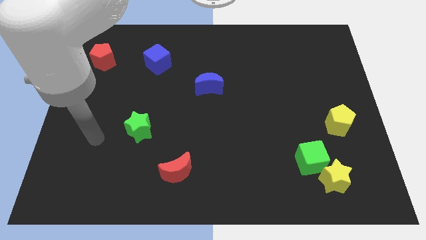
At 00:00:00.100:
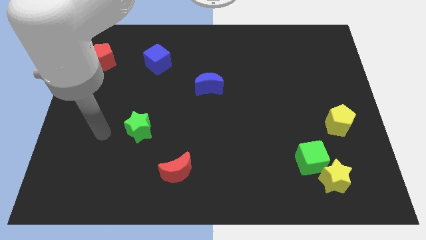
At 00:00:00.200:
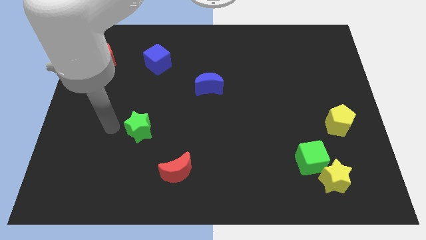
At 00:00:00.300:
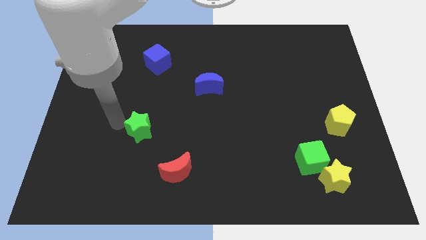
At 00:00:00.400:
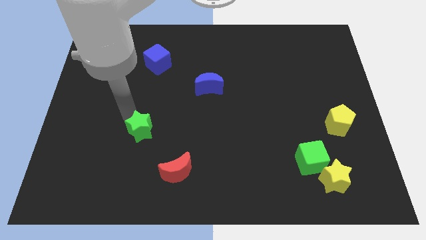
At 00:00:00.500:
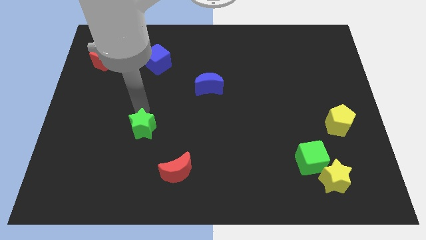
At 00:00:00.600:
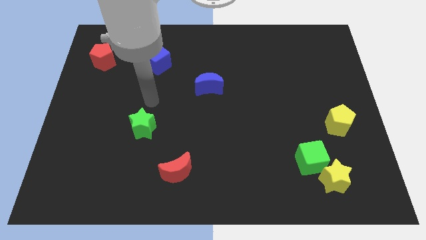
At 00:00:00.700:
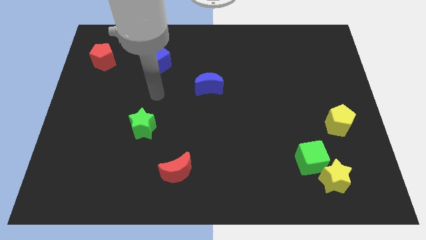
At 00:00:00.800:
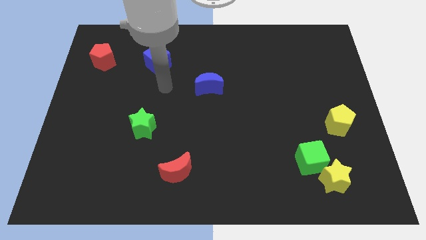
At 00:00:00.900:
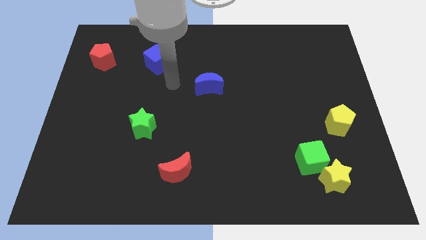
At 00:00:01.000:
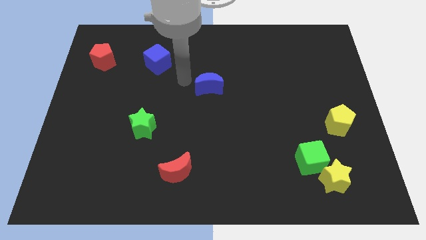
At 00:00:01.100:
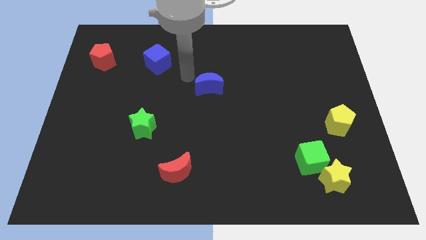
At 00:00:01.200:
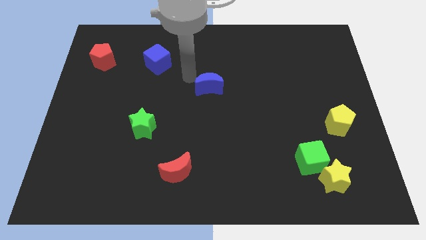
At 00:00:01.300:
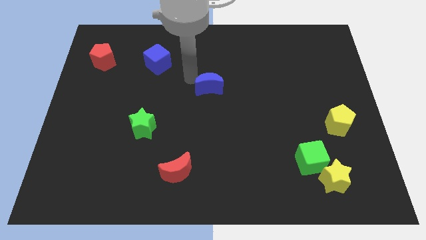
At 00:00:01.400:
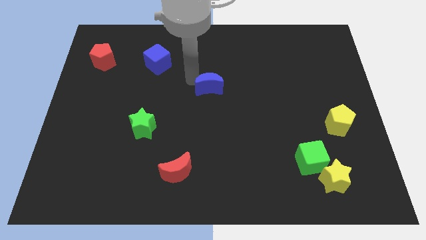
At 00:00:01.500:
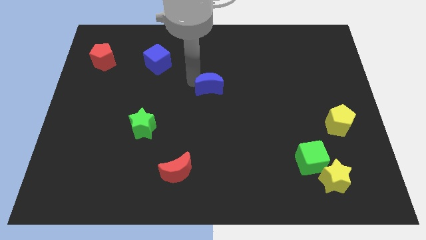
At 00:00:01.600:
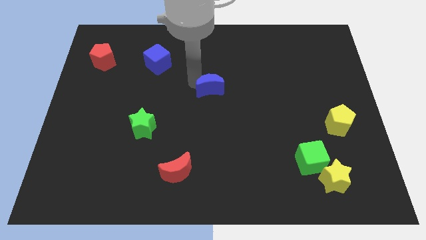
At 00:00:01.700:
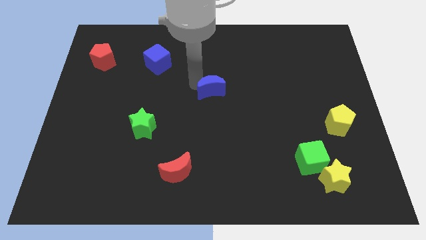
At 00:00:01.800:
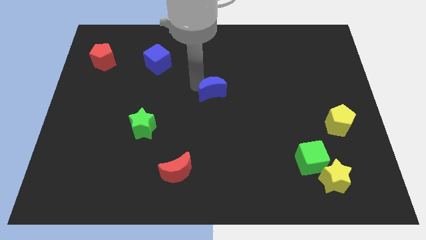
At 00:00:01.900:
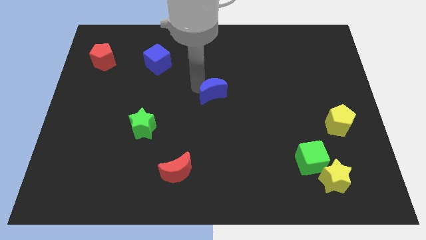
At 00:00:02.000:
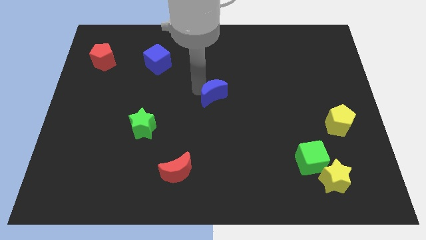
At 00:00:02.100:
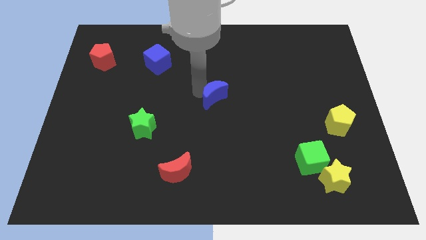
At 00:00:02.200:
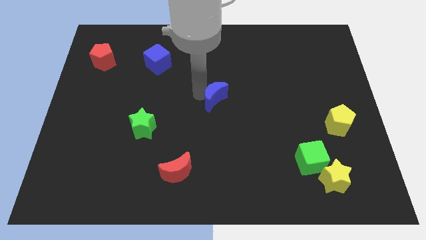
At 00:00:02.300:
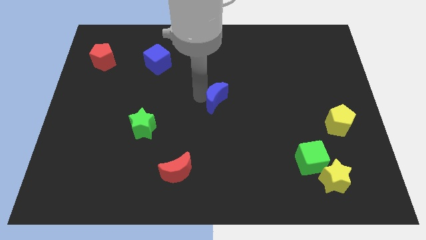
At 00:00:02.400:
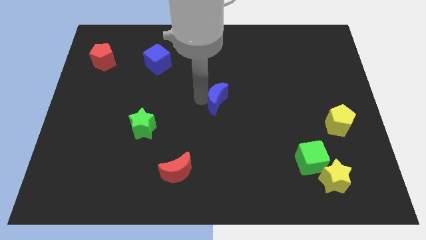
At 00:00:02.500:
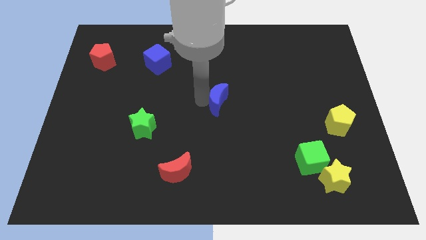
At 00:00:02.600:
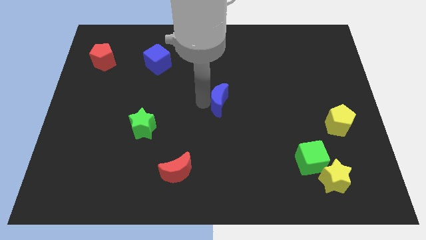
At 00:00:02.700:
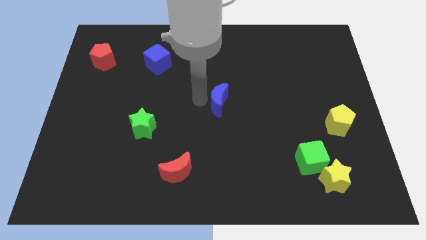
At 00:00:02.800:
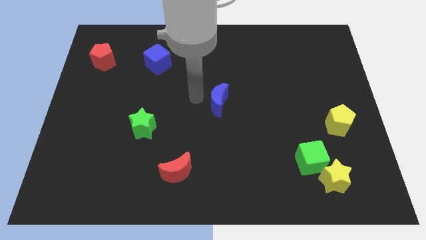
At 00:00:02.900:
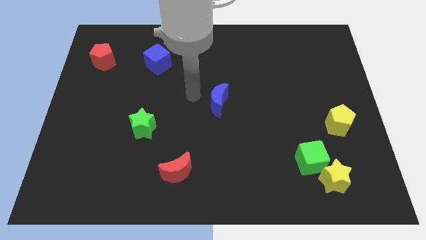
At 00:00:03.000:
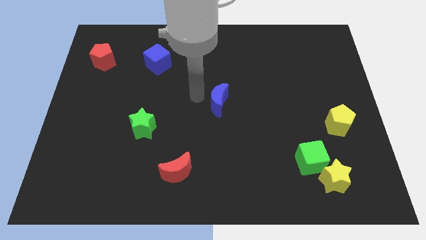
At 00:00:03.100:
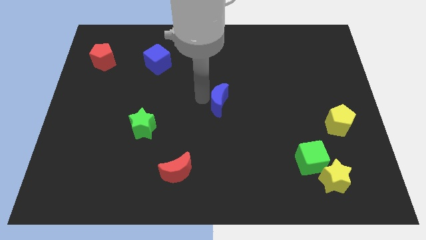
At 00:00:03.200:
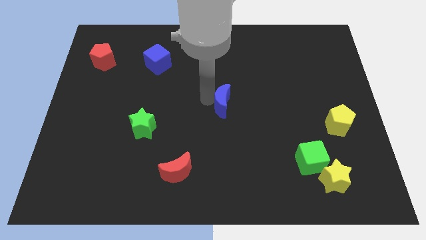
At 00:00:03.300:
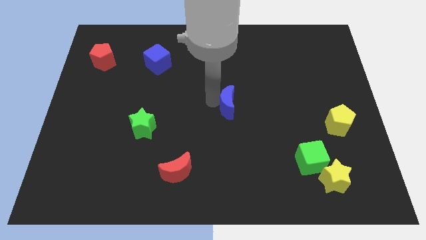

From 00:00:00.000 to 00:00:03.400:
slightly slide the blue moon down and right

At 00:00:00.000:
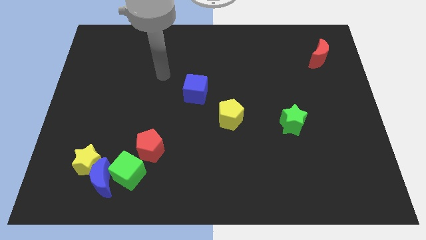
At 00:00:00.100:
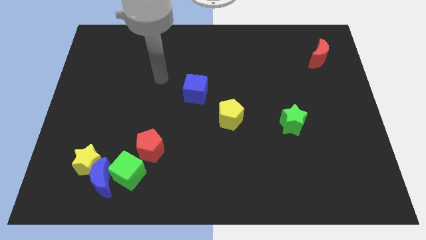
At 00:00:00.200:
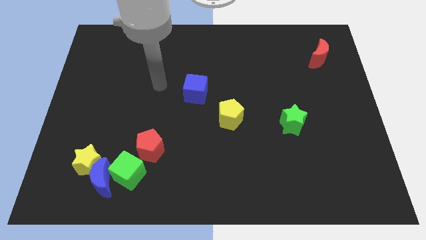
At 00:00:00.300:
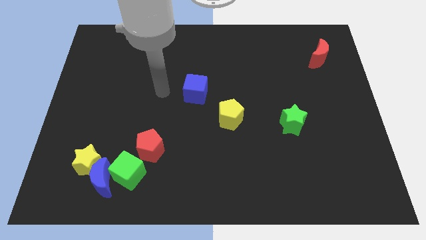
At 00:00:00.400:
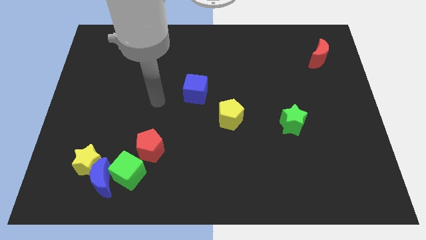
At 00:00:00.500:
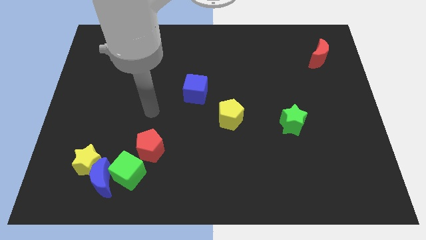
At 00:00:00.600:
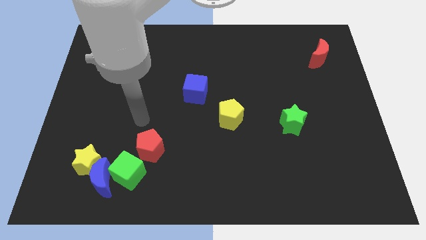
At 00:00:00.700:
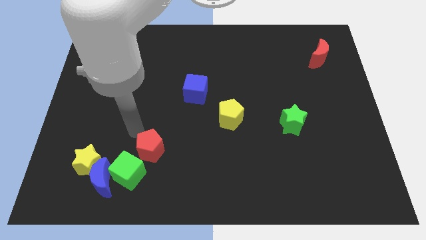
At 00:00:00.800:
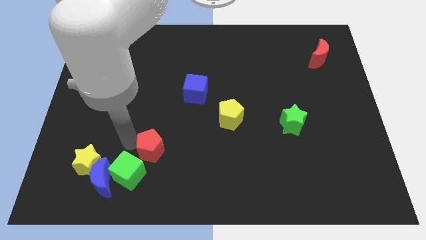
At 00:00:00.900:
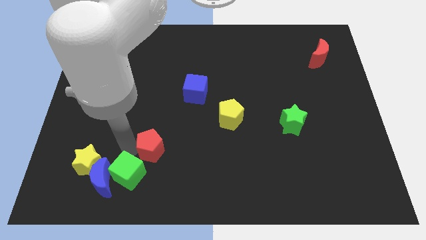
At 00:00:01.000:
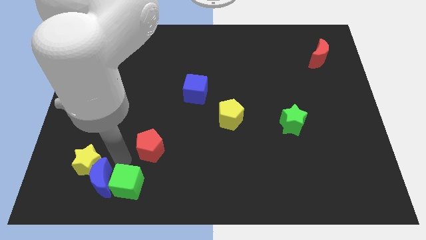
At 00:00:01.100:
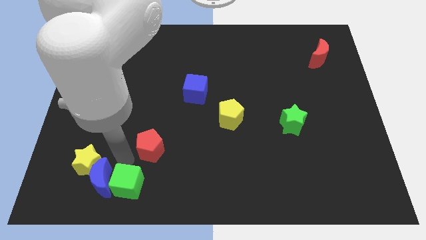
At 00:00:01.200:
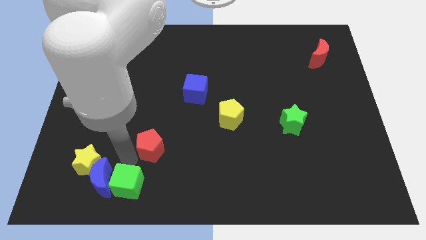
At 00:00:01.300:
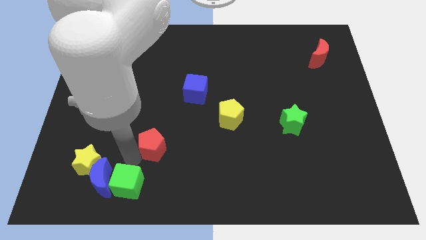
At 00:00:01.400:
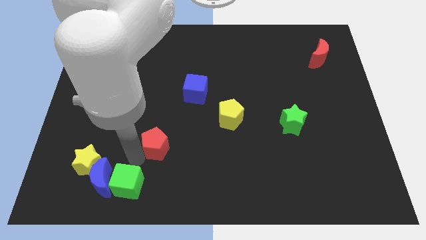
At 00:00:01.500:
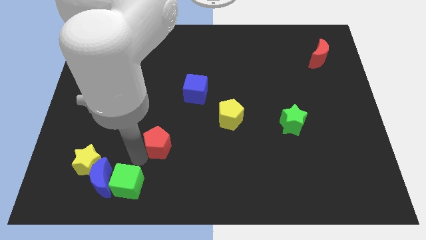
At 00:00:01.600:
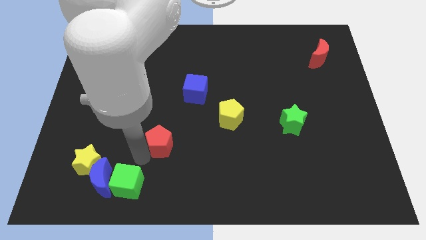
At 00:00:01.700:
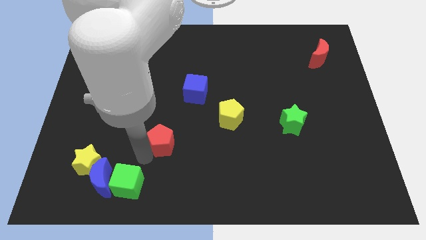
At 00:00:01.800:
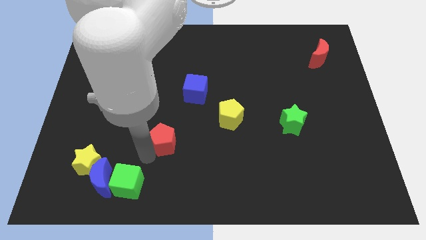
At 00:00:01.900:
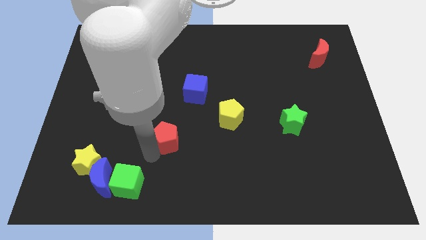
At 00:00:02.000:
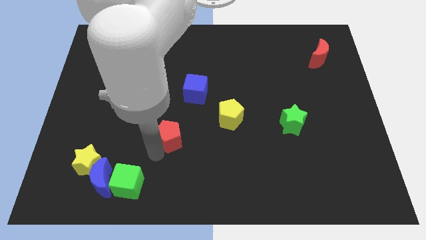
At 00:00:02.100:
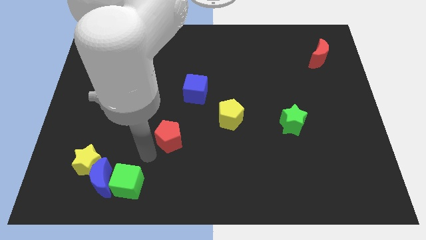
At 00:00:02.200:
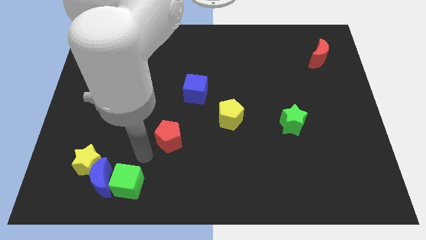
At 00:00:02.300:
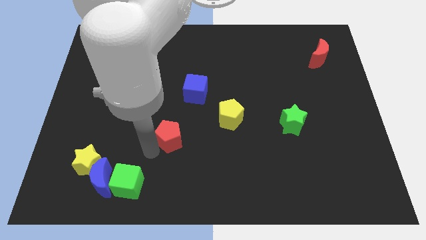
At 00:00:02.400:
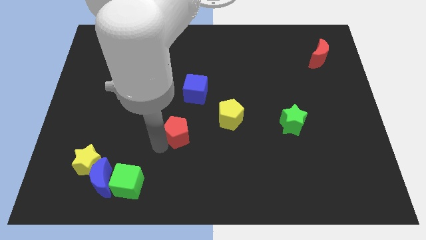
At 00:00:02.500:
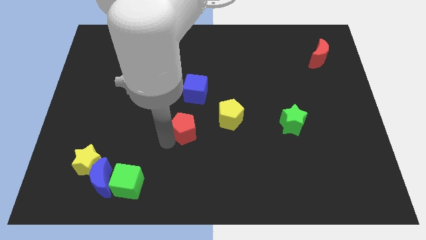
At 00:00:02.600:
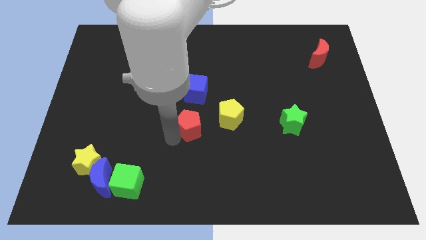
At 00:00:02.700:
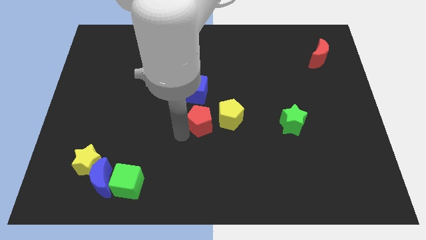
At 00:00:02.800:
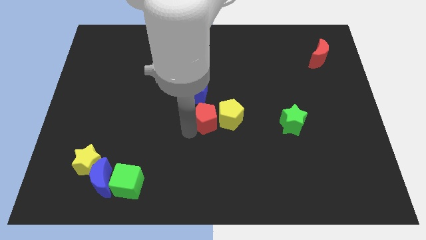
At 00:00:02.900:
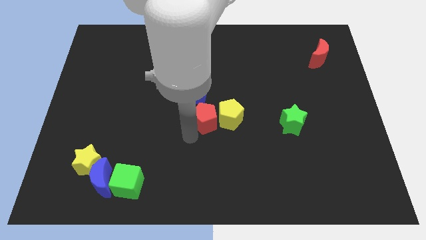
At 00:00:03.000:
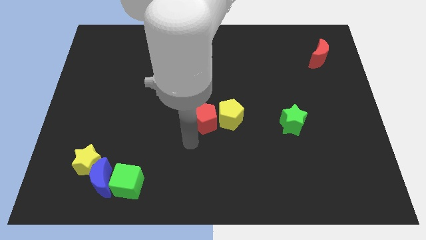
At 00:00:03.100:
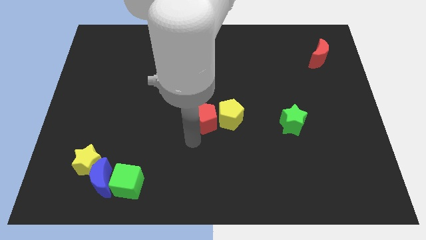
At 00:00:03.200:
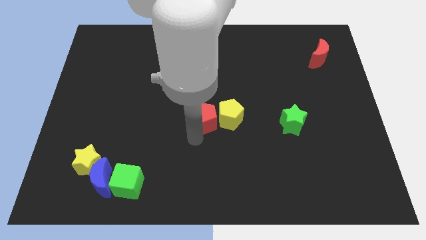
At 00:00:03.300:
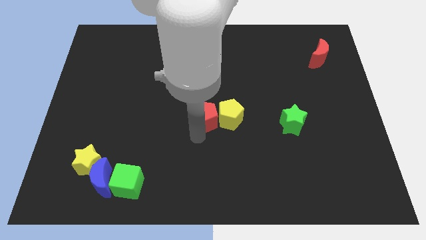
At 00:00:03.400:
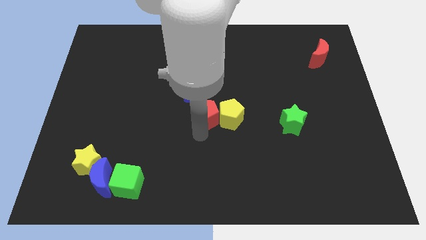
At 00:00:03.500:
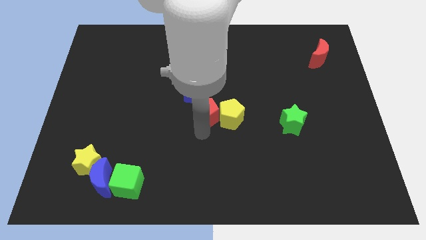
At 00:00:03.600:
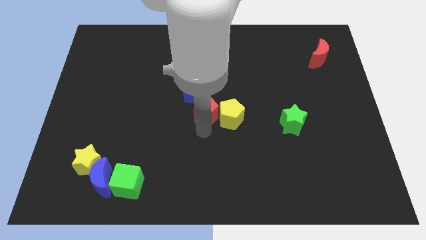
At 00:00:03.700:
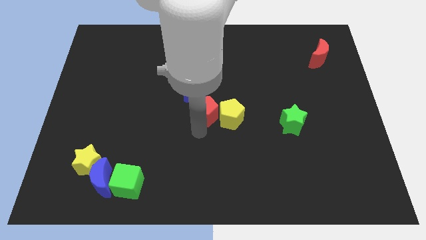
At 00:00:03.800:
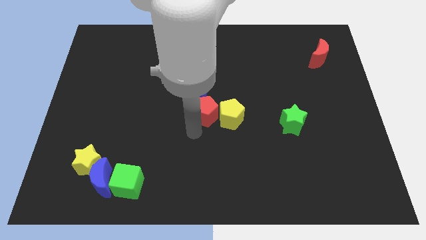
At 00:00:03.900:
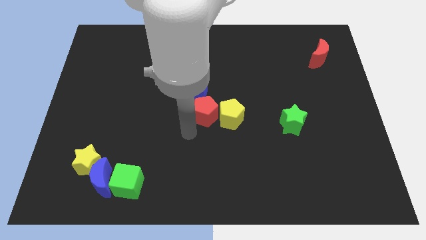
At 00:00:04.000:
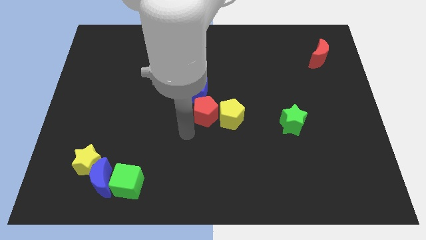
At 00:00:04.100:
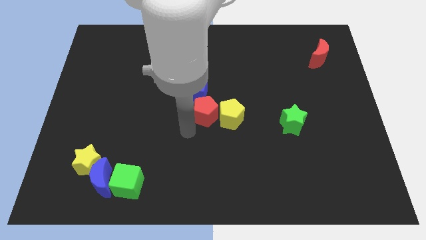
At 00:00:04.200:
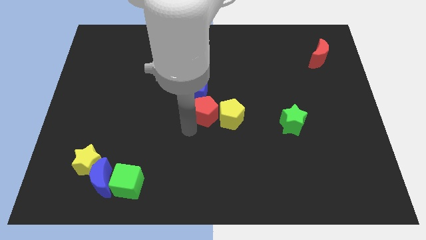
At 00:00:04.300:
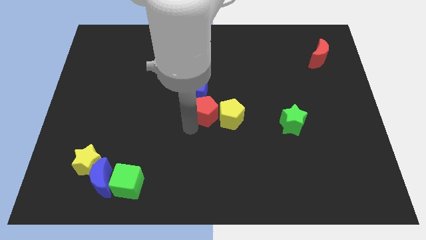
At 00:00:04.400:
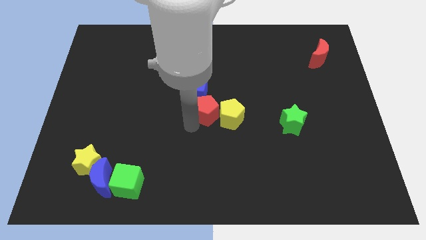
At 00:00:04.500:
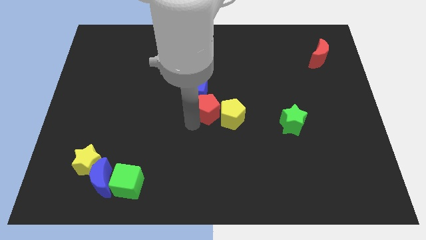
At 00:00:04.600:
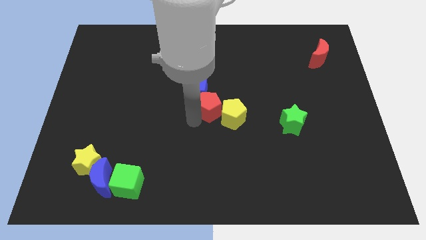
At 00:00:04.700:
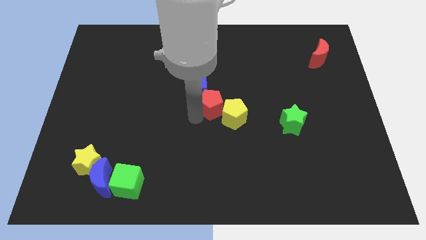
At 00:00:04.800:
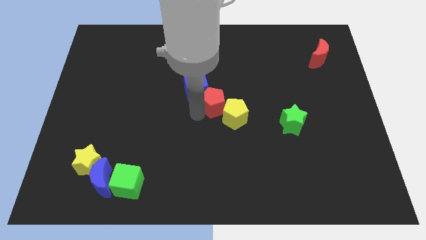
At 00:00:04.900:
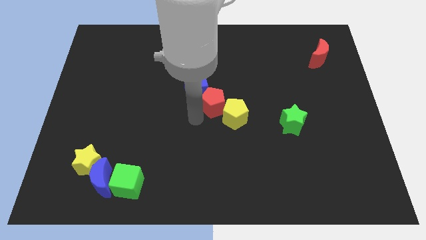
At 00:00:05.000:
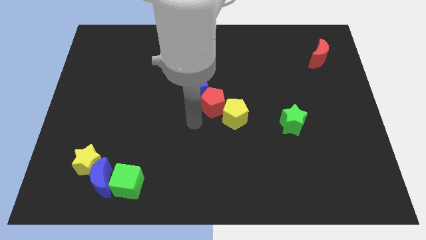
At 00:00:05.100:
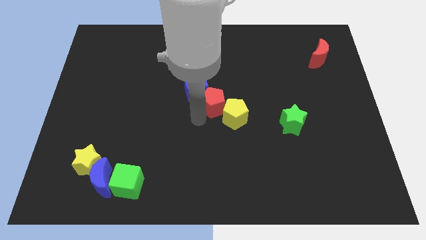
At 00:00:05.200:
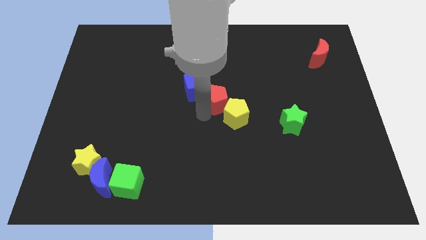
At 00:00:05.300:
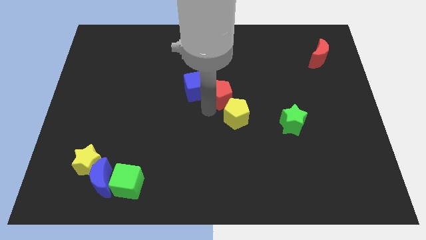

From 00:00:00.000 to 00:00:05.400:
move the red pentagon upwards and to the right
